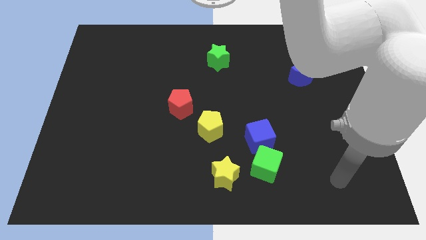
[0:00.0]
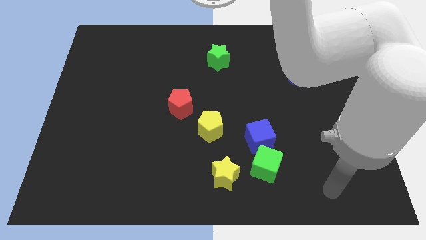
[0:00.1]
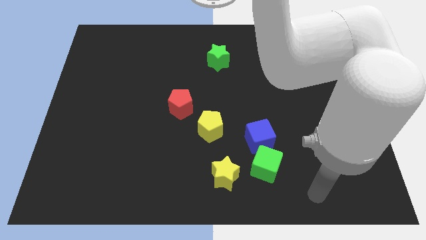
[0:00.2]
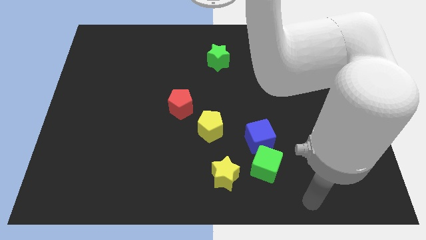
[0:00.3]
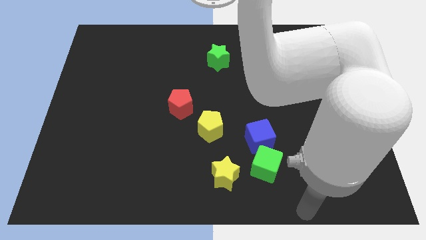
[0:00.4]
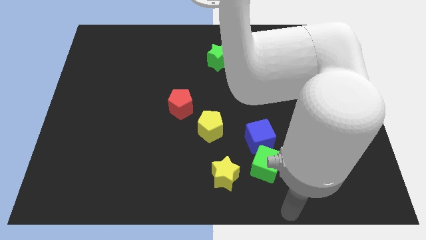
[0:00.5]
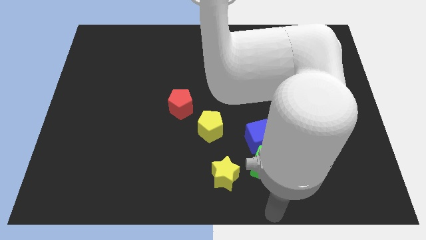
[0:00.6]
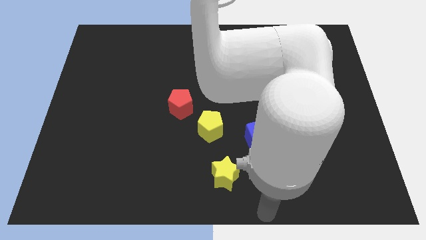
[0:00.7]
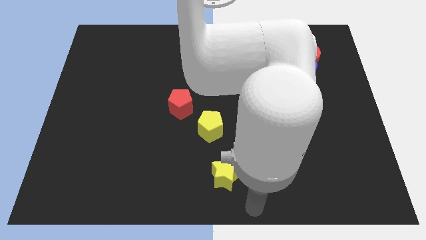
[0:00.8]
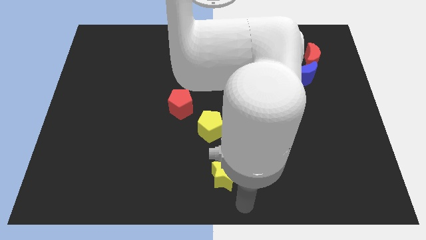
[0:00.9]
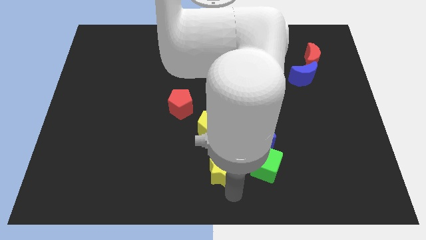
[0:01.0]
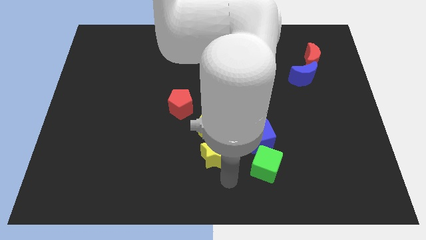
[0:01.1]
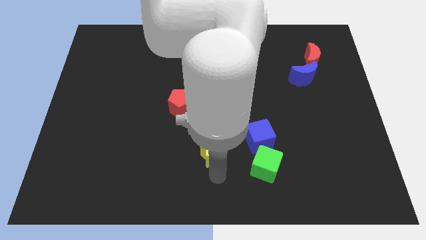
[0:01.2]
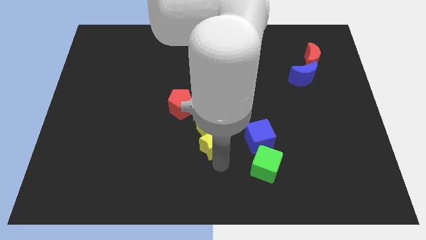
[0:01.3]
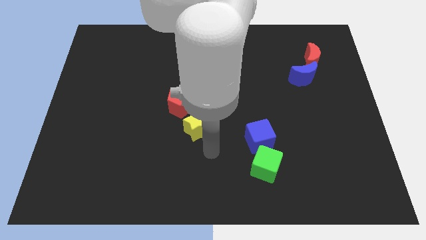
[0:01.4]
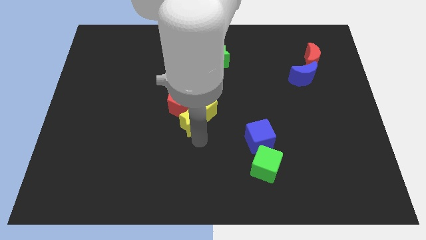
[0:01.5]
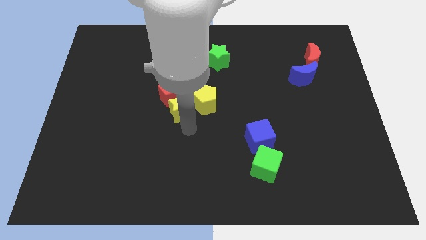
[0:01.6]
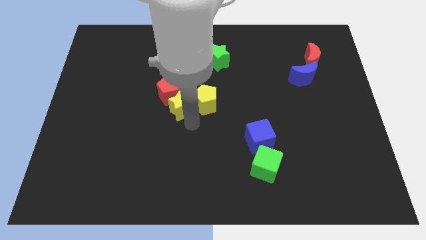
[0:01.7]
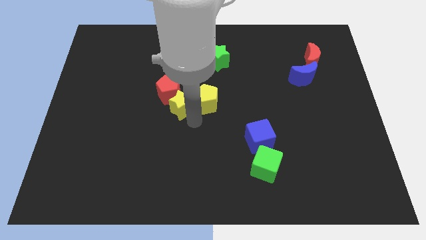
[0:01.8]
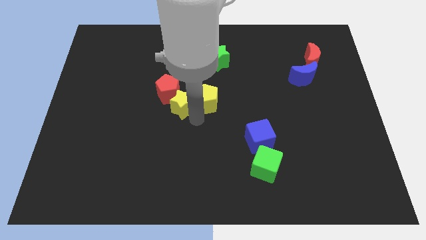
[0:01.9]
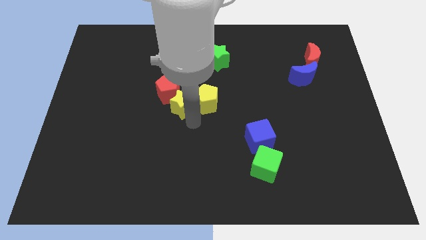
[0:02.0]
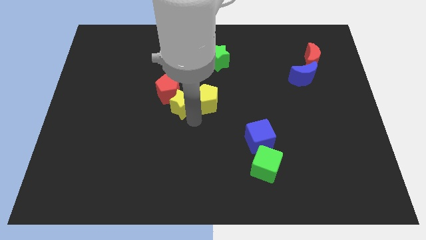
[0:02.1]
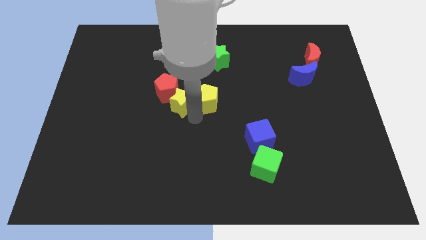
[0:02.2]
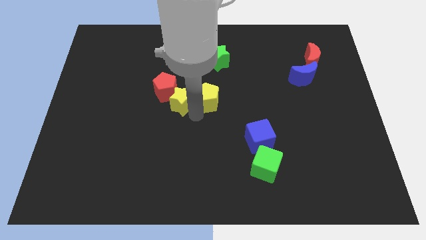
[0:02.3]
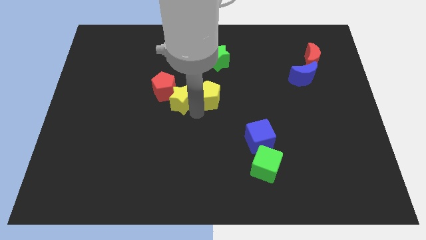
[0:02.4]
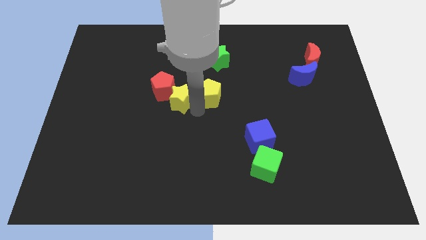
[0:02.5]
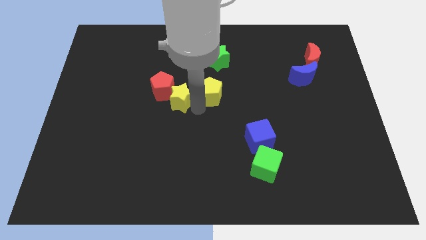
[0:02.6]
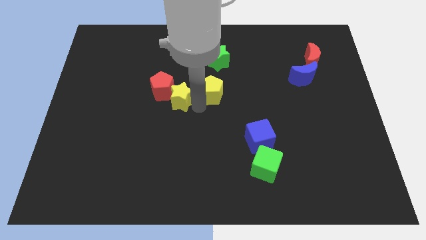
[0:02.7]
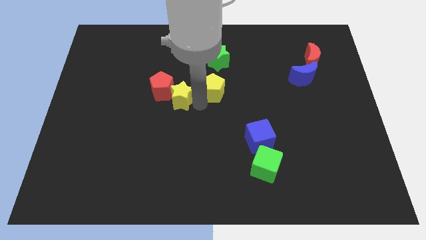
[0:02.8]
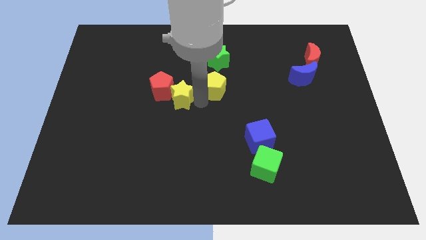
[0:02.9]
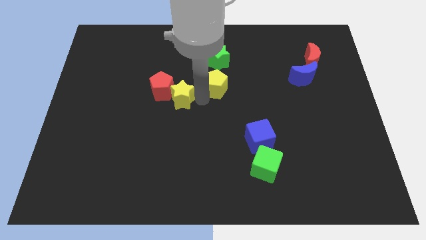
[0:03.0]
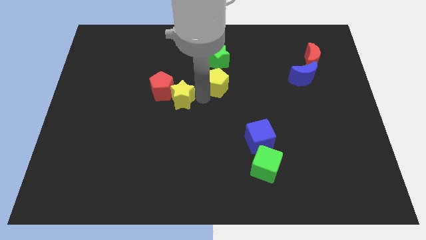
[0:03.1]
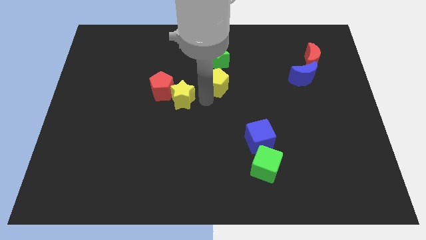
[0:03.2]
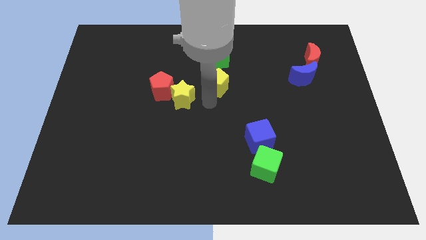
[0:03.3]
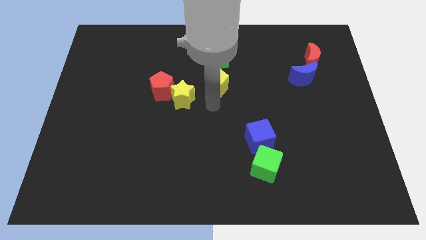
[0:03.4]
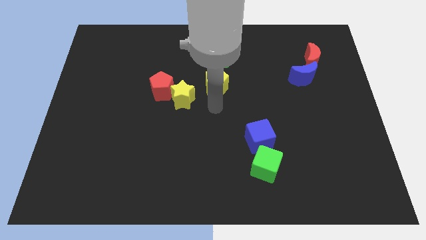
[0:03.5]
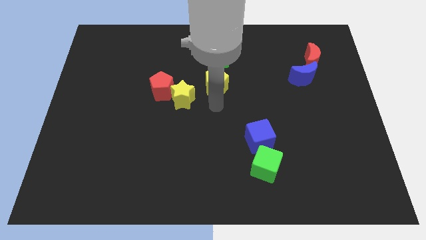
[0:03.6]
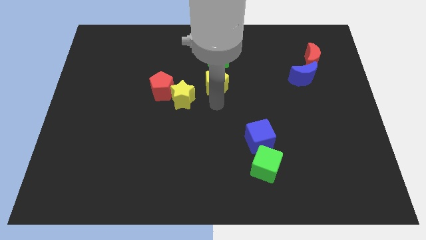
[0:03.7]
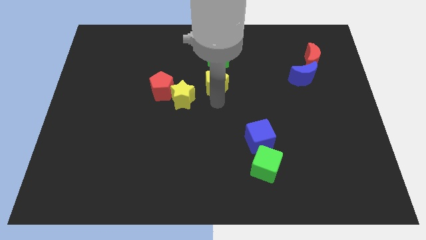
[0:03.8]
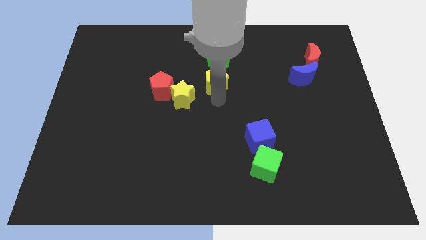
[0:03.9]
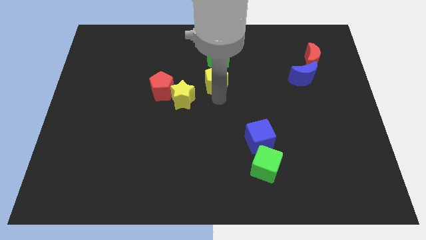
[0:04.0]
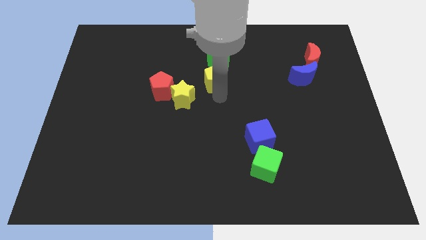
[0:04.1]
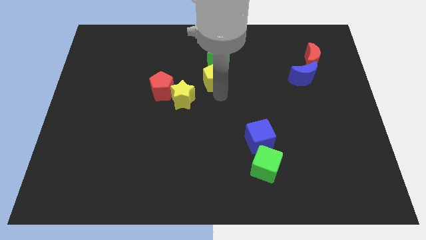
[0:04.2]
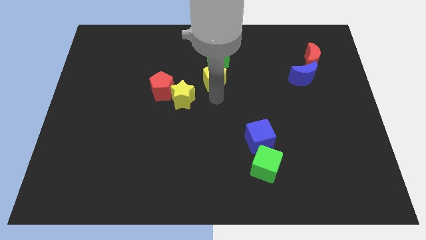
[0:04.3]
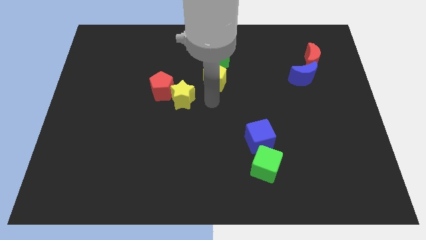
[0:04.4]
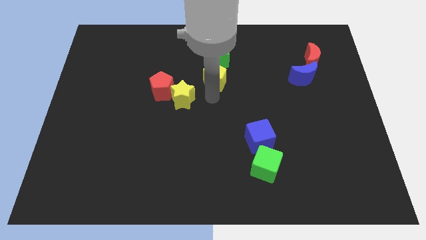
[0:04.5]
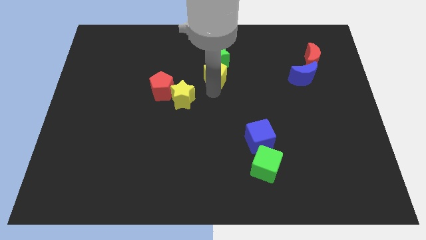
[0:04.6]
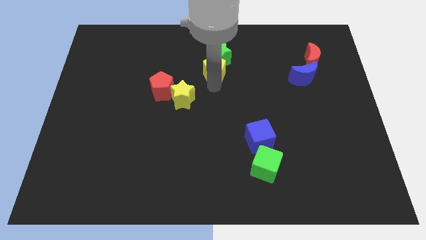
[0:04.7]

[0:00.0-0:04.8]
slide the yellow pentagon next to the green star

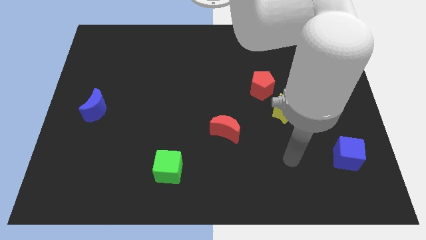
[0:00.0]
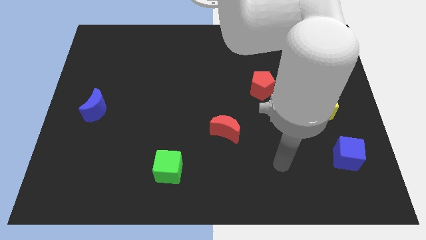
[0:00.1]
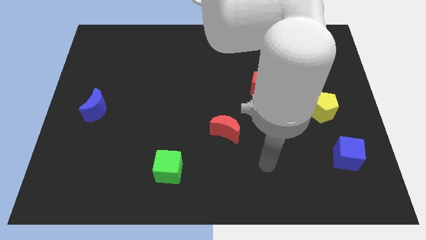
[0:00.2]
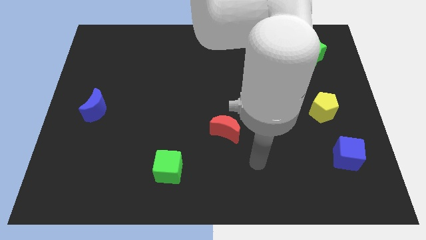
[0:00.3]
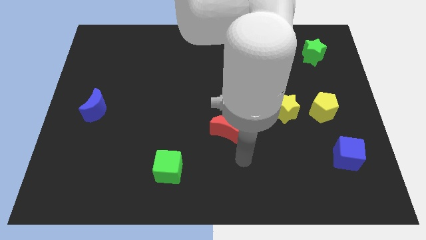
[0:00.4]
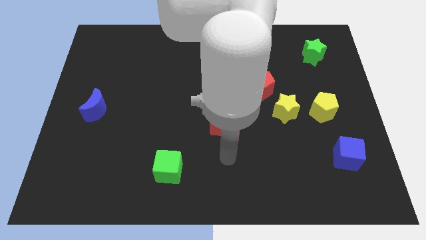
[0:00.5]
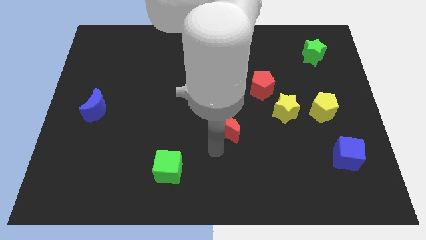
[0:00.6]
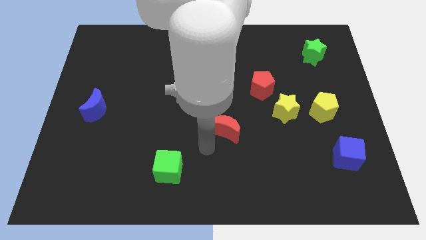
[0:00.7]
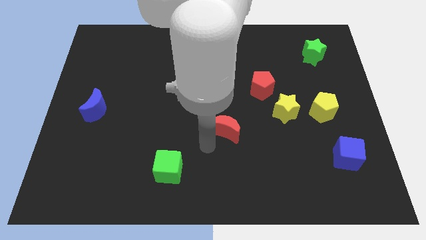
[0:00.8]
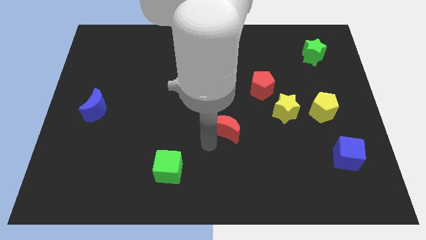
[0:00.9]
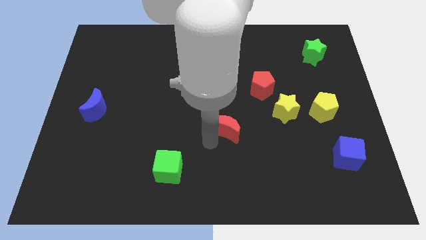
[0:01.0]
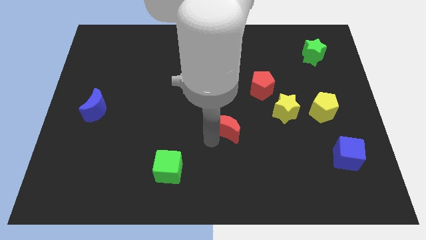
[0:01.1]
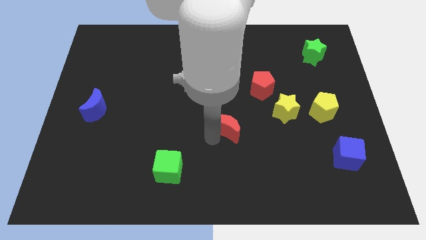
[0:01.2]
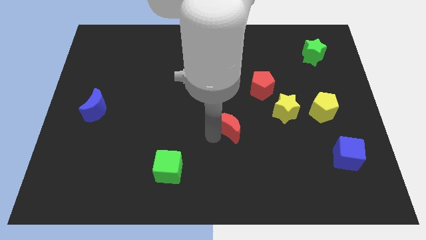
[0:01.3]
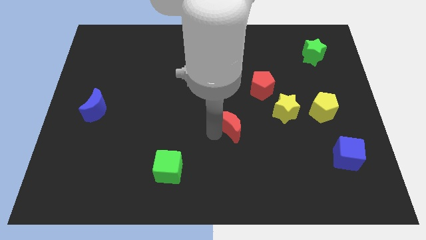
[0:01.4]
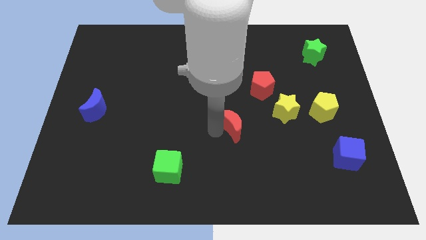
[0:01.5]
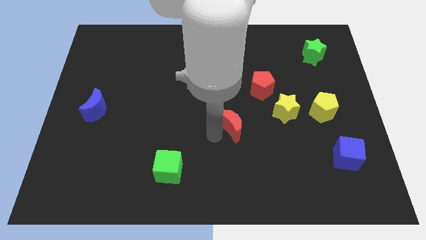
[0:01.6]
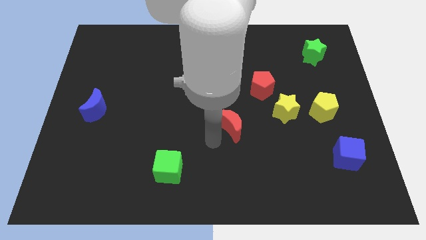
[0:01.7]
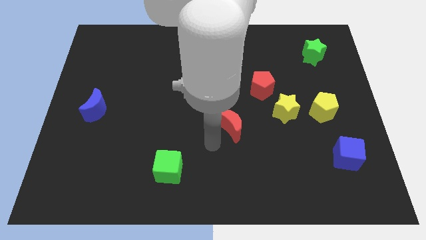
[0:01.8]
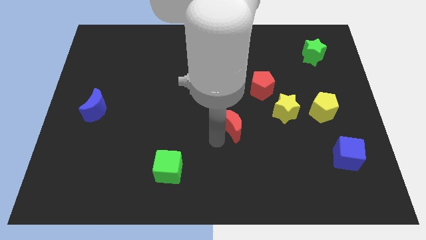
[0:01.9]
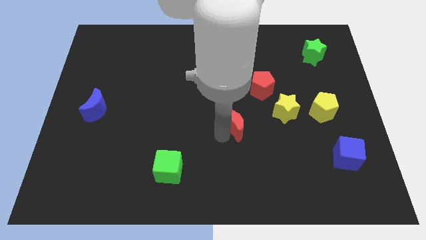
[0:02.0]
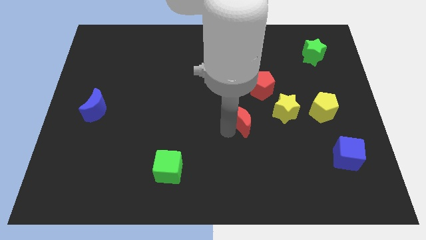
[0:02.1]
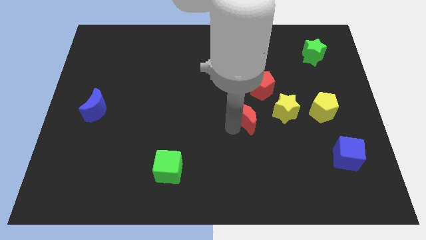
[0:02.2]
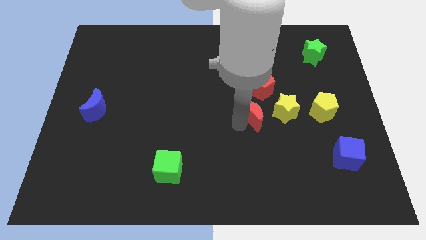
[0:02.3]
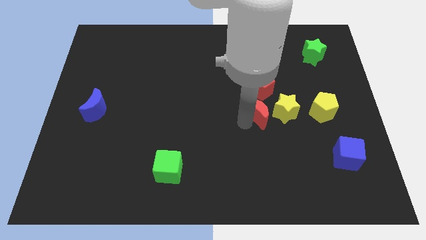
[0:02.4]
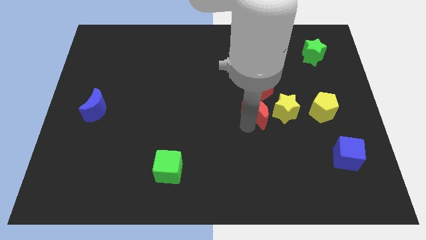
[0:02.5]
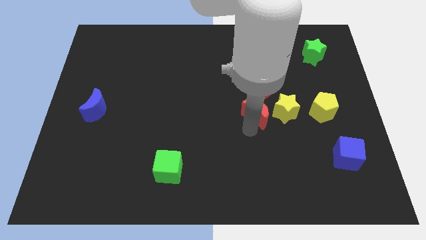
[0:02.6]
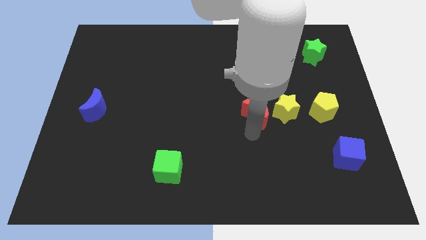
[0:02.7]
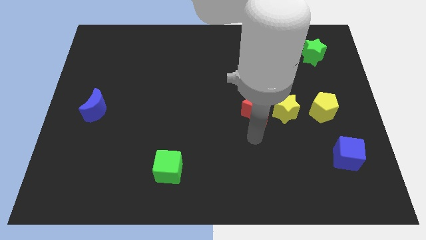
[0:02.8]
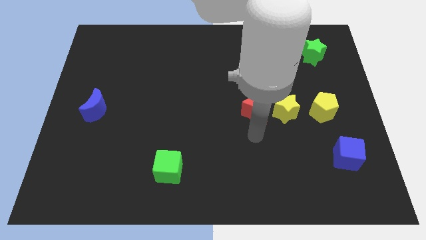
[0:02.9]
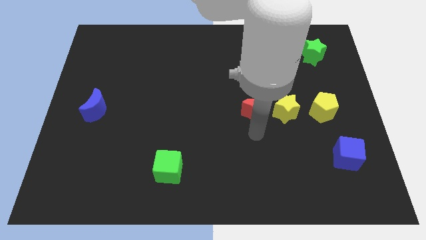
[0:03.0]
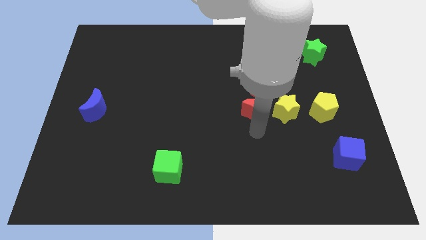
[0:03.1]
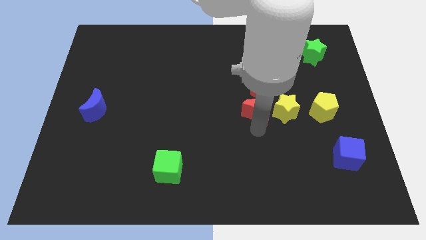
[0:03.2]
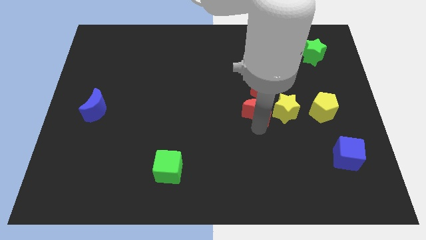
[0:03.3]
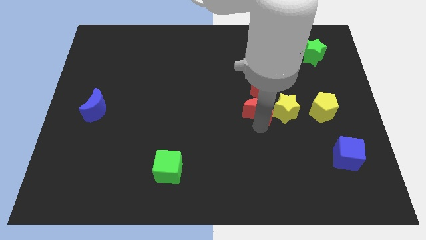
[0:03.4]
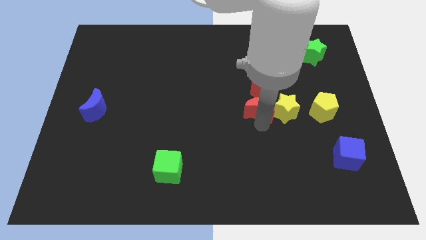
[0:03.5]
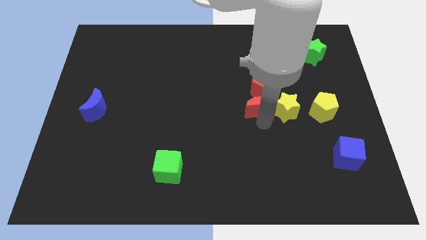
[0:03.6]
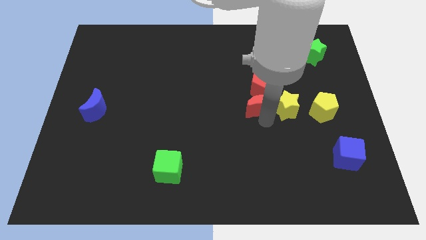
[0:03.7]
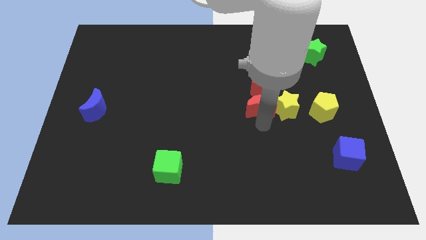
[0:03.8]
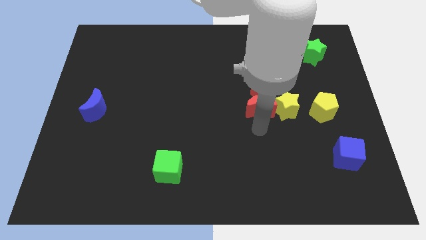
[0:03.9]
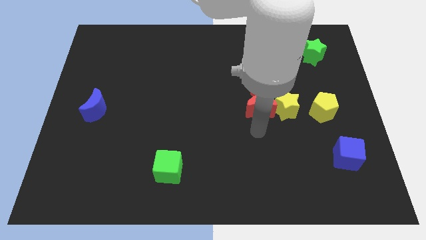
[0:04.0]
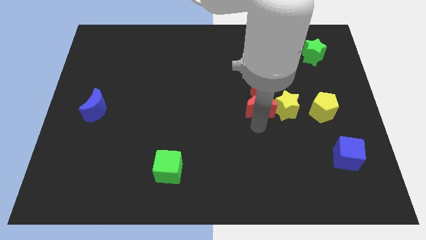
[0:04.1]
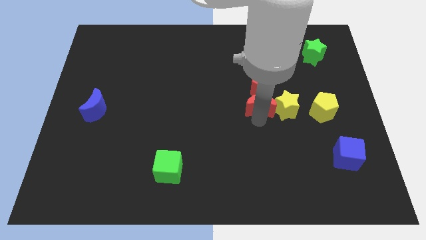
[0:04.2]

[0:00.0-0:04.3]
slide the red moon next to the red pentagon
